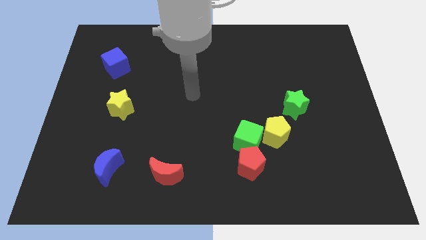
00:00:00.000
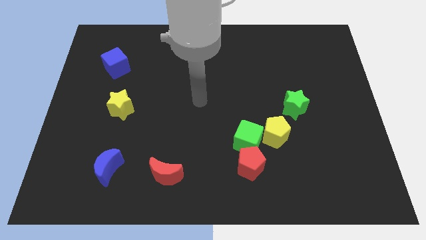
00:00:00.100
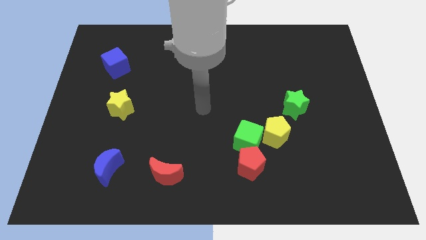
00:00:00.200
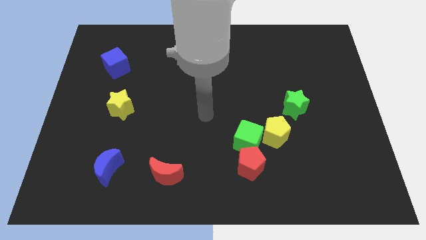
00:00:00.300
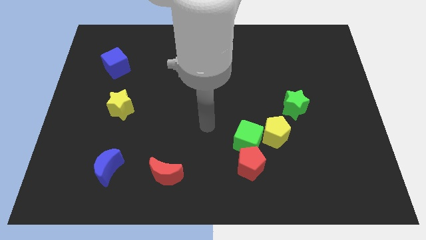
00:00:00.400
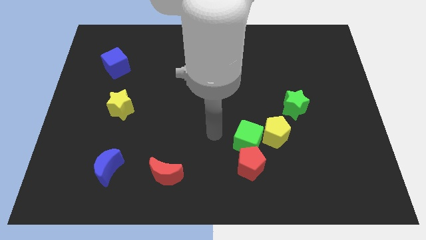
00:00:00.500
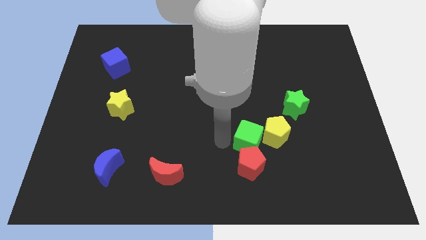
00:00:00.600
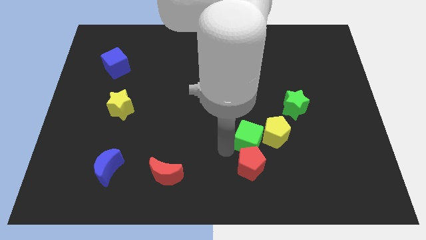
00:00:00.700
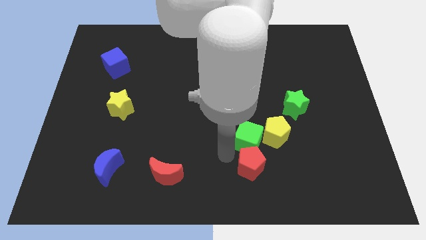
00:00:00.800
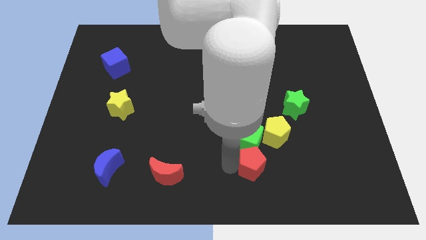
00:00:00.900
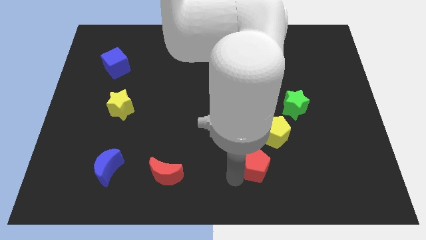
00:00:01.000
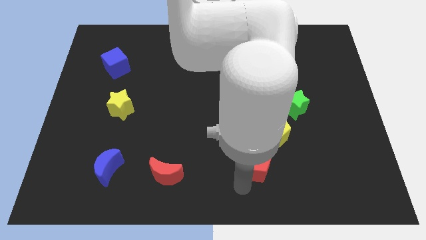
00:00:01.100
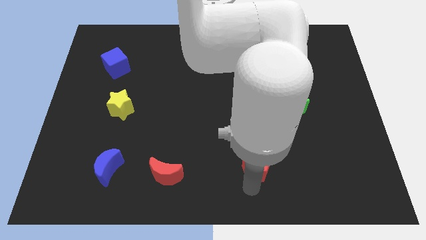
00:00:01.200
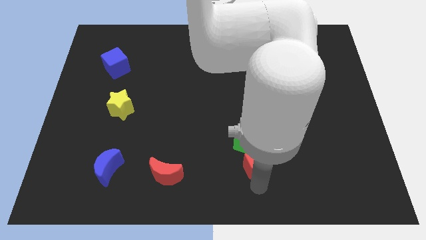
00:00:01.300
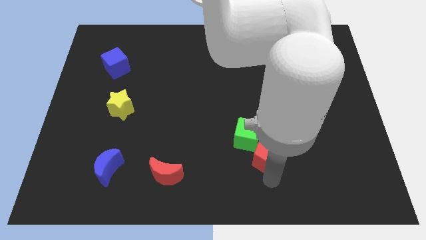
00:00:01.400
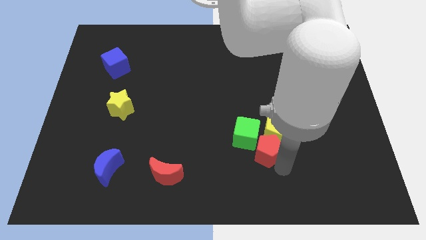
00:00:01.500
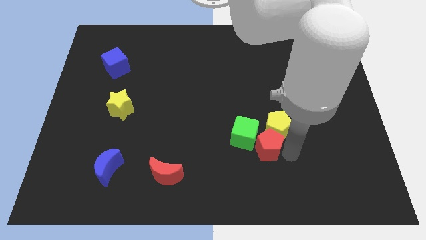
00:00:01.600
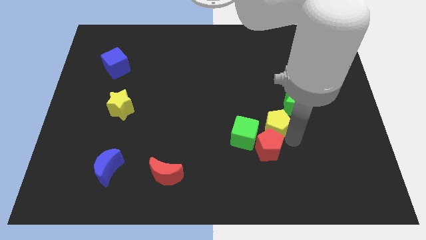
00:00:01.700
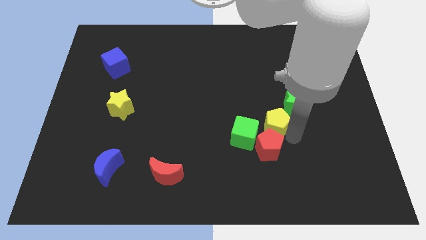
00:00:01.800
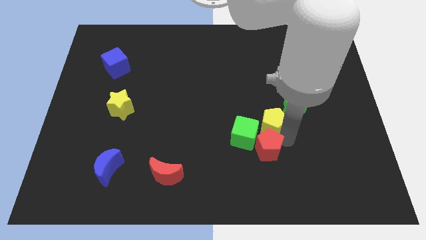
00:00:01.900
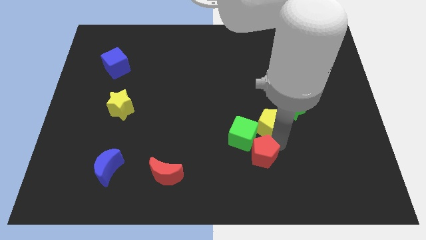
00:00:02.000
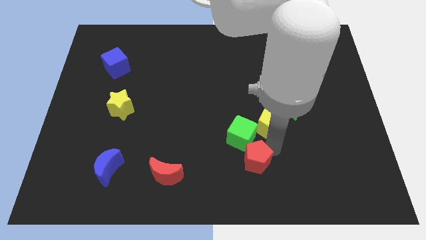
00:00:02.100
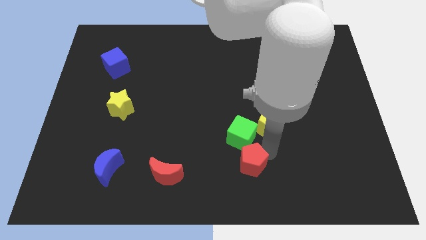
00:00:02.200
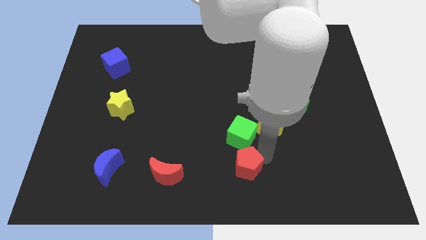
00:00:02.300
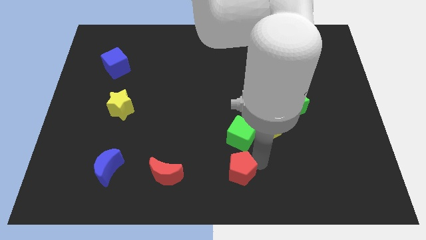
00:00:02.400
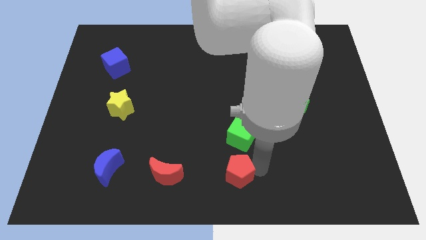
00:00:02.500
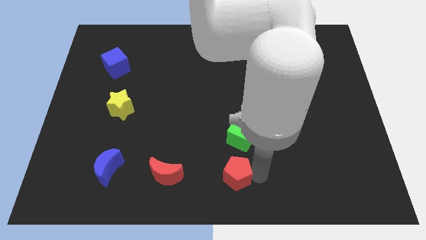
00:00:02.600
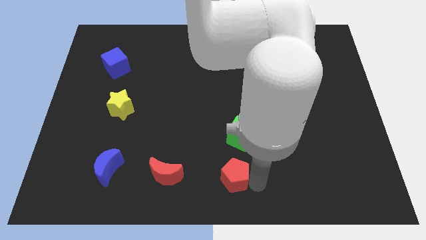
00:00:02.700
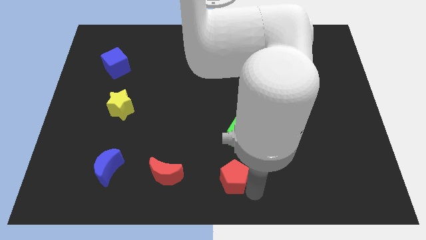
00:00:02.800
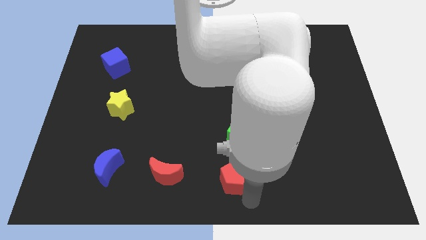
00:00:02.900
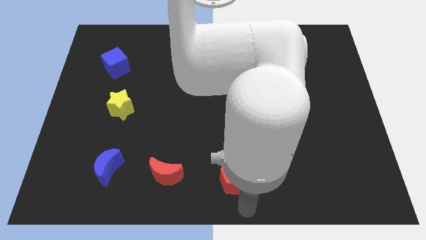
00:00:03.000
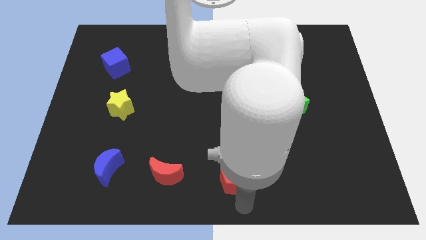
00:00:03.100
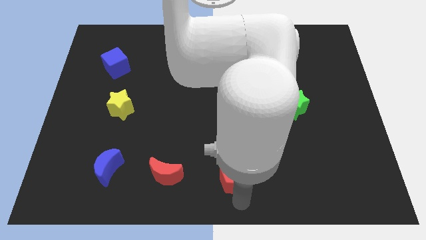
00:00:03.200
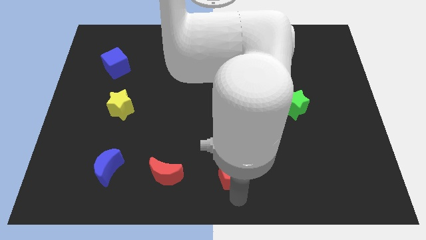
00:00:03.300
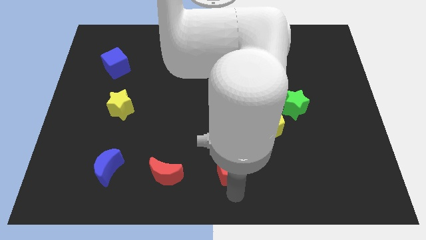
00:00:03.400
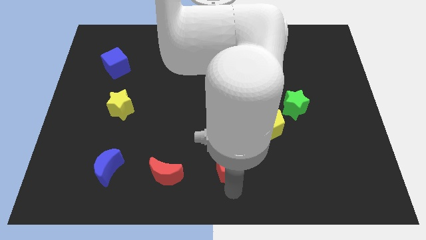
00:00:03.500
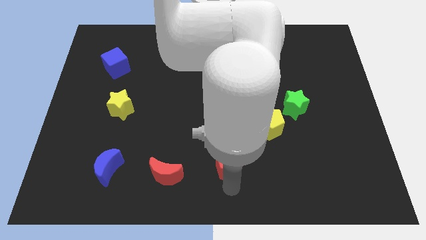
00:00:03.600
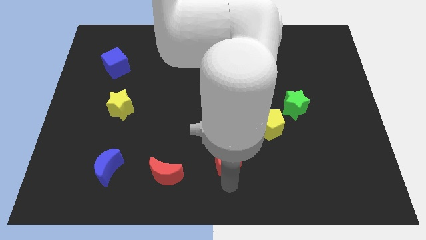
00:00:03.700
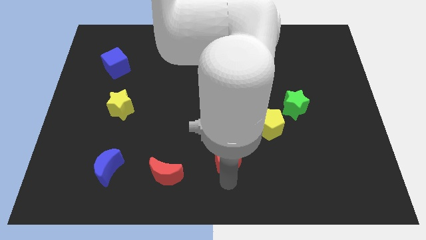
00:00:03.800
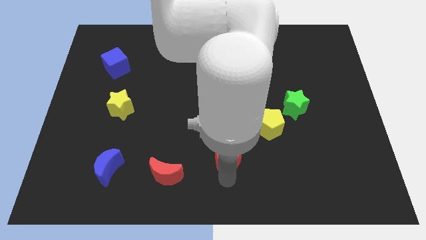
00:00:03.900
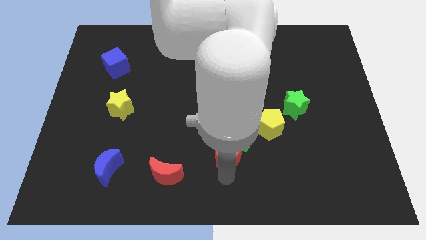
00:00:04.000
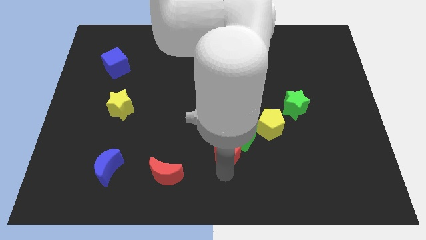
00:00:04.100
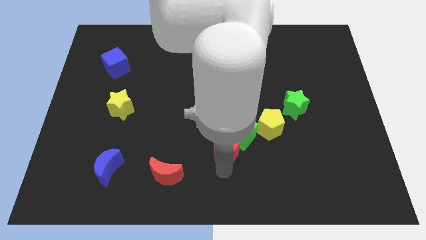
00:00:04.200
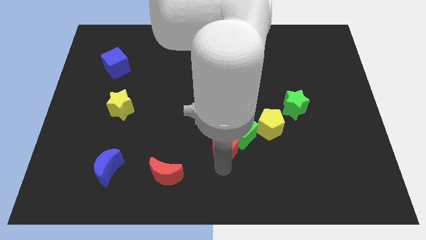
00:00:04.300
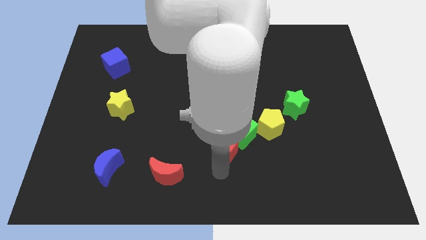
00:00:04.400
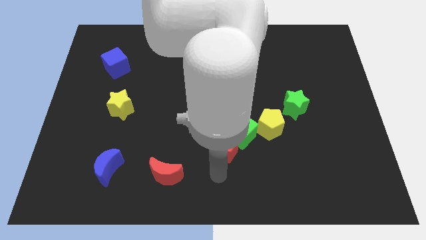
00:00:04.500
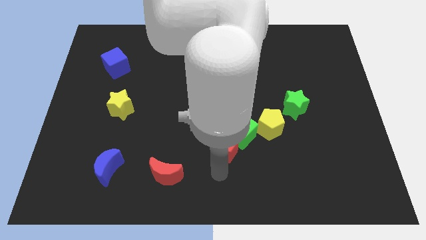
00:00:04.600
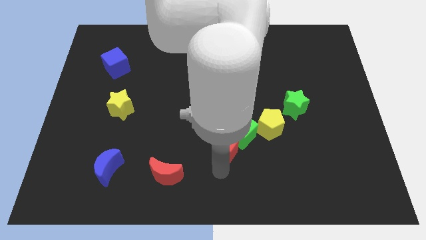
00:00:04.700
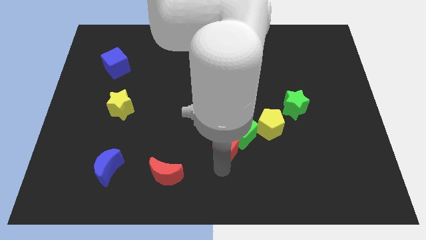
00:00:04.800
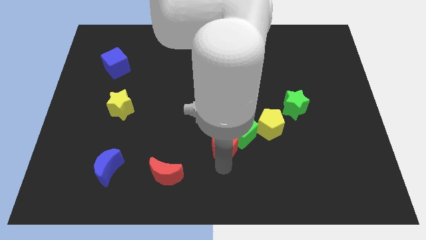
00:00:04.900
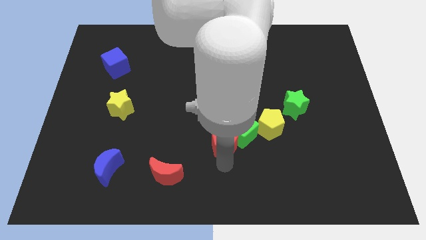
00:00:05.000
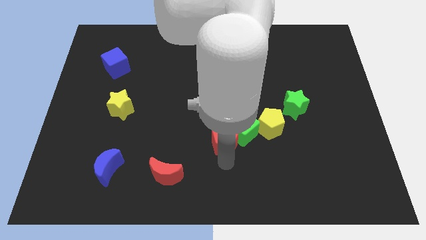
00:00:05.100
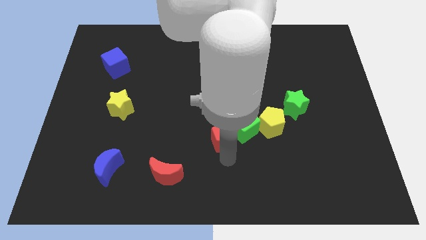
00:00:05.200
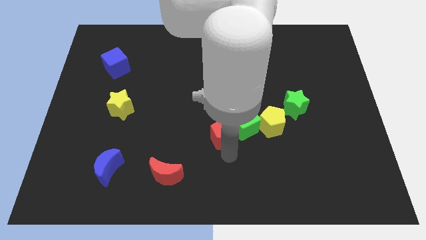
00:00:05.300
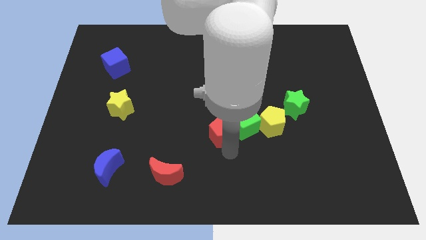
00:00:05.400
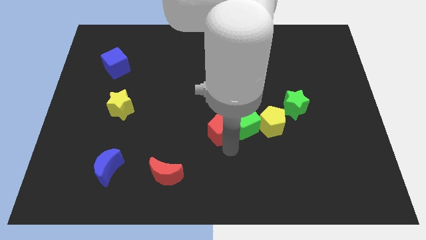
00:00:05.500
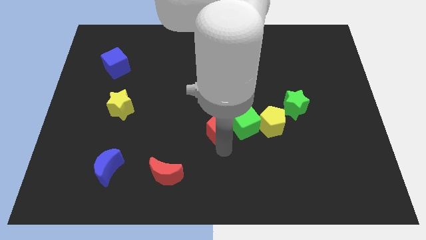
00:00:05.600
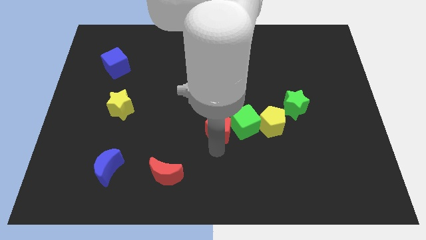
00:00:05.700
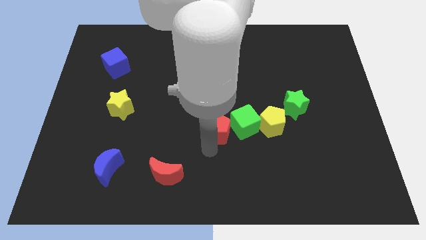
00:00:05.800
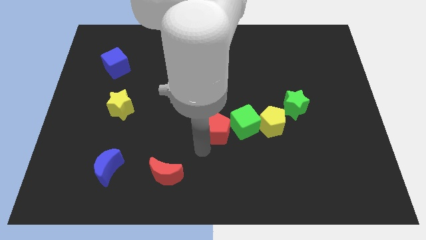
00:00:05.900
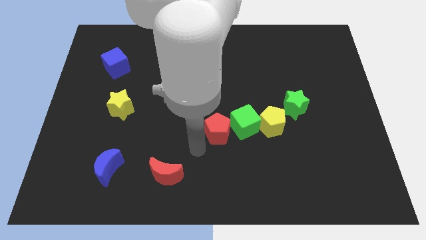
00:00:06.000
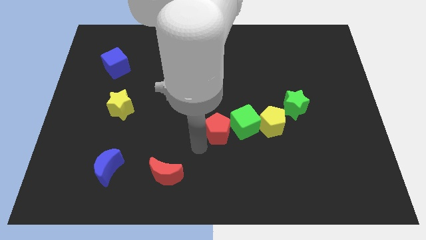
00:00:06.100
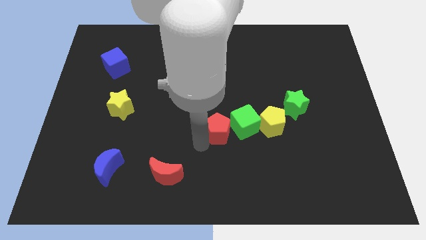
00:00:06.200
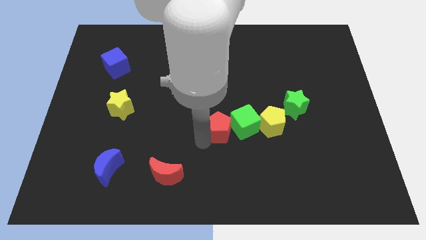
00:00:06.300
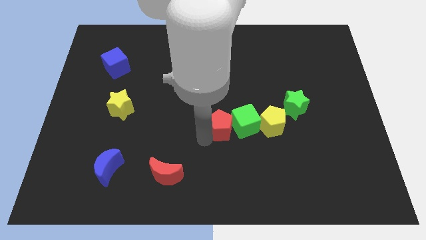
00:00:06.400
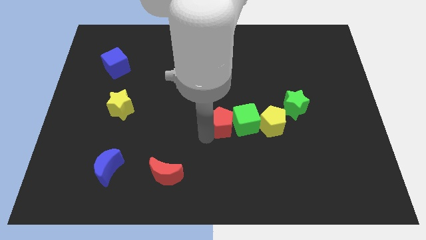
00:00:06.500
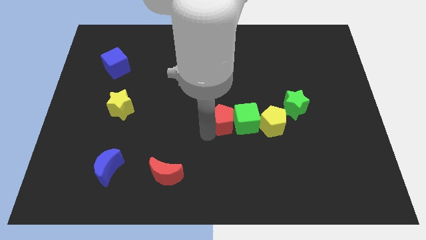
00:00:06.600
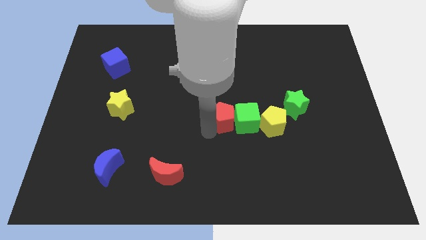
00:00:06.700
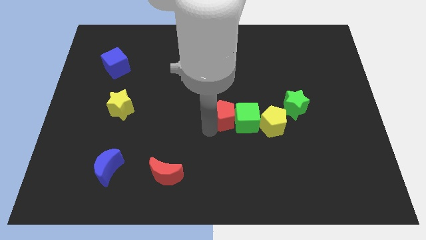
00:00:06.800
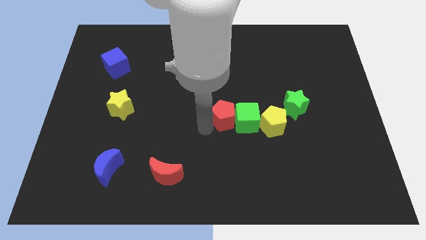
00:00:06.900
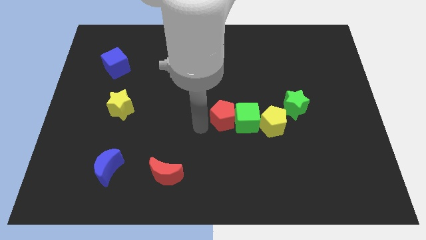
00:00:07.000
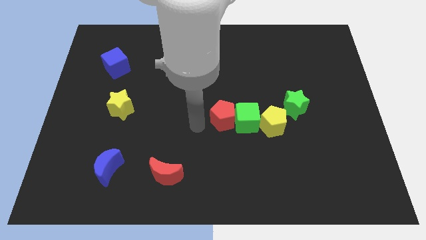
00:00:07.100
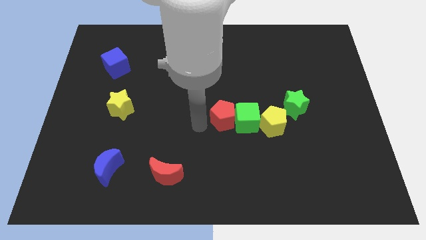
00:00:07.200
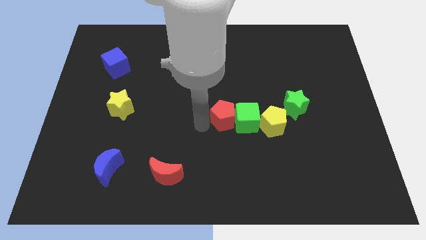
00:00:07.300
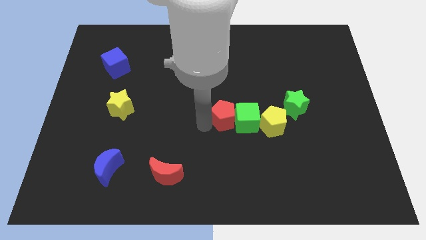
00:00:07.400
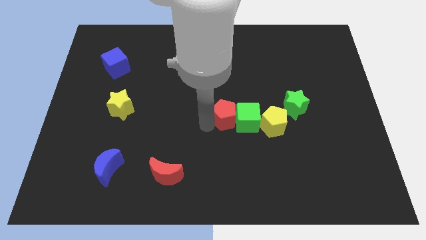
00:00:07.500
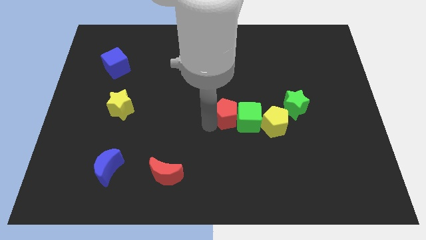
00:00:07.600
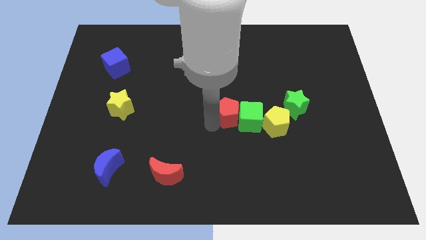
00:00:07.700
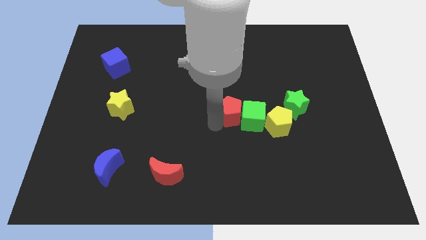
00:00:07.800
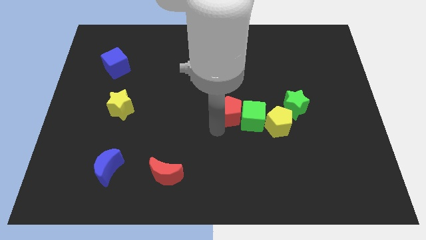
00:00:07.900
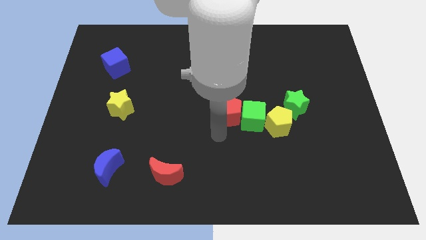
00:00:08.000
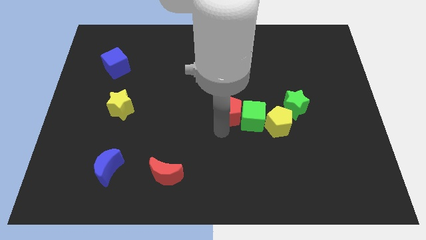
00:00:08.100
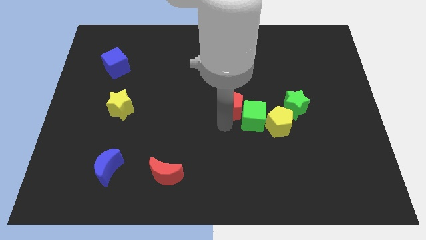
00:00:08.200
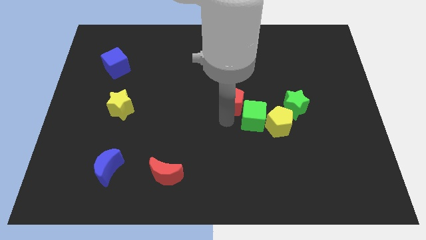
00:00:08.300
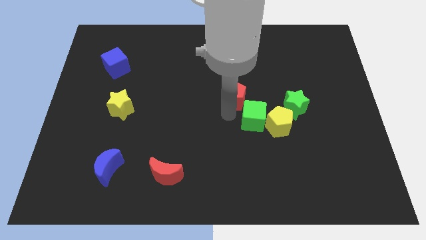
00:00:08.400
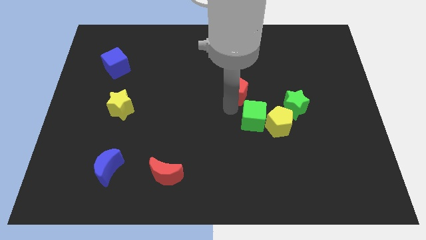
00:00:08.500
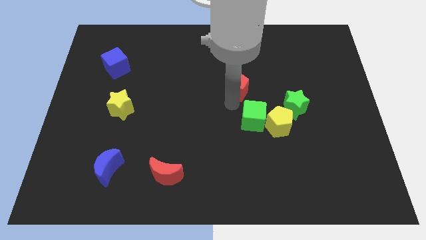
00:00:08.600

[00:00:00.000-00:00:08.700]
push the red pentagon upwards
